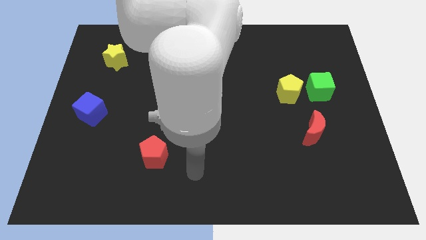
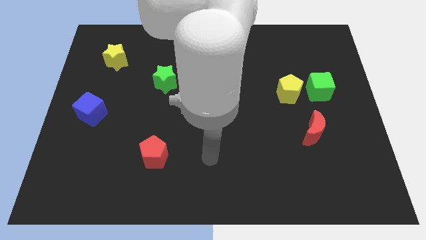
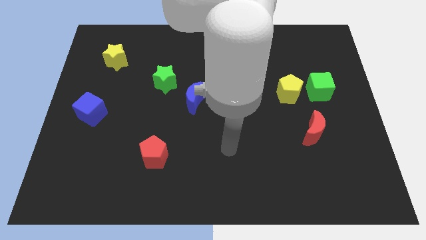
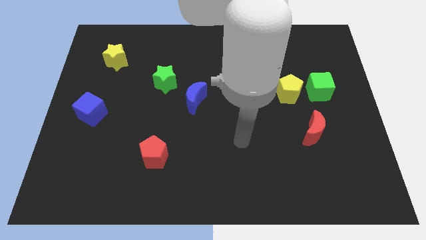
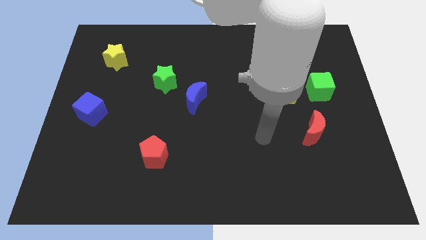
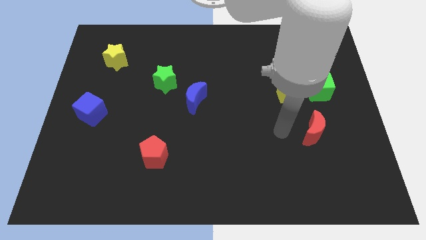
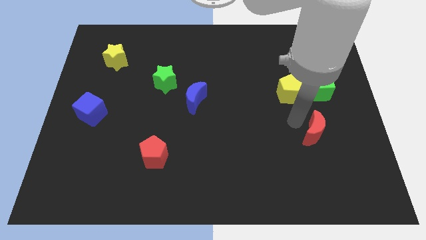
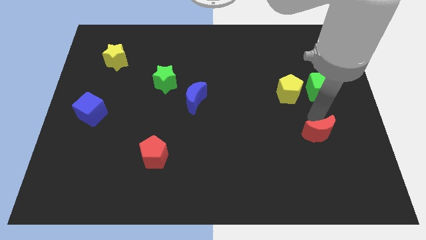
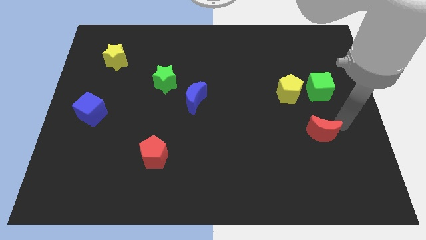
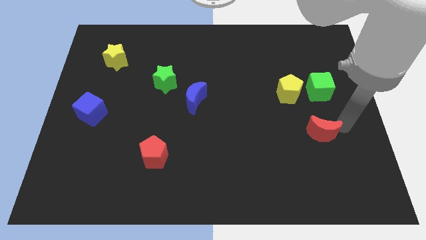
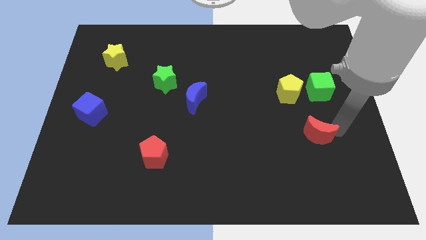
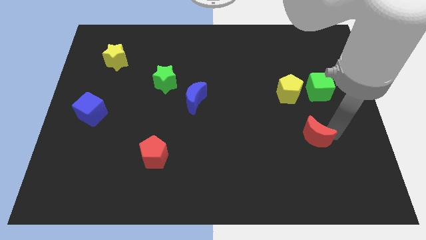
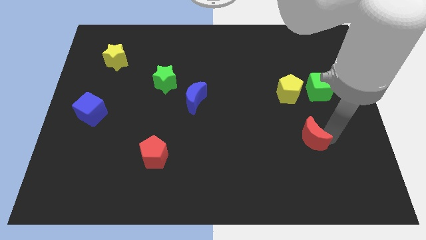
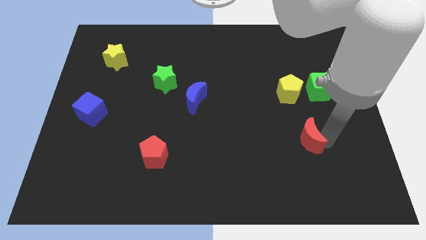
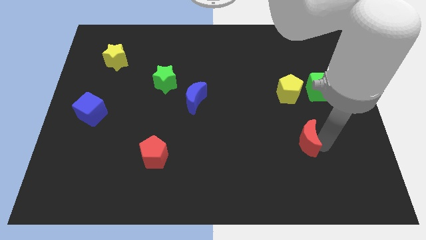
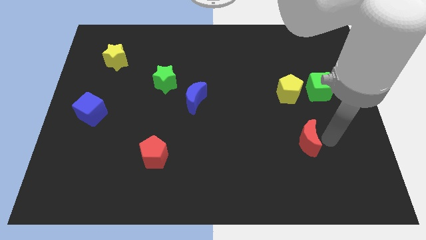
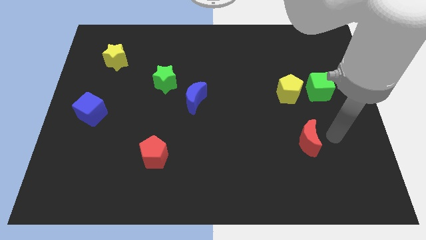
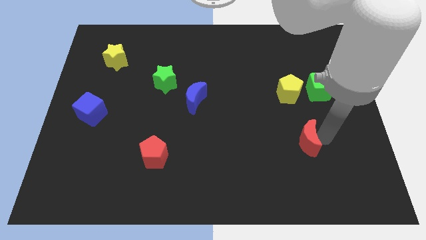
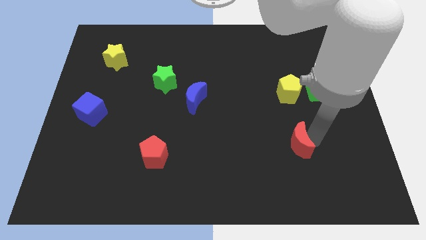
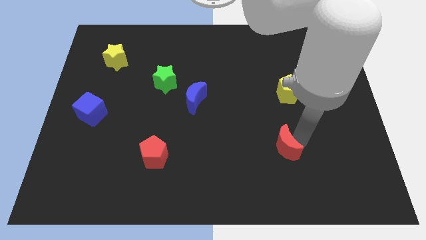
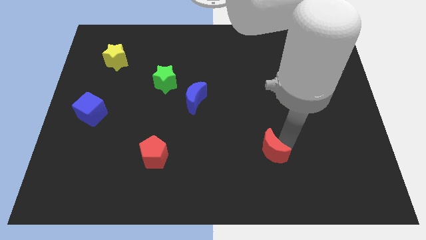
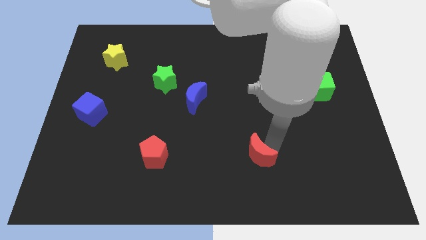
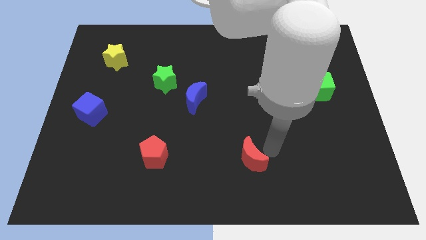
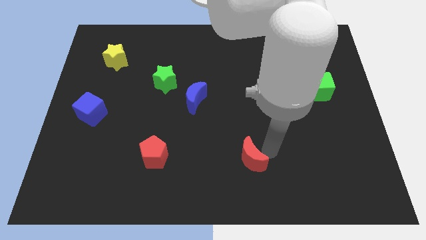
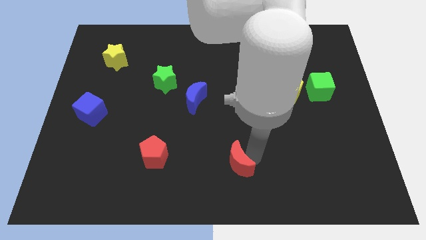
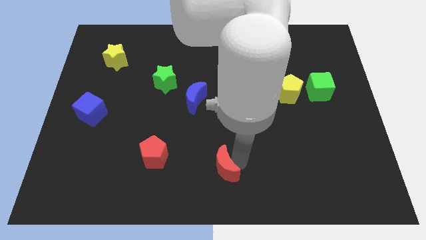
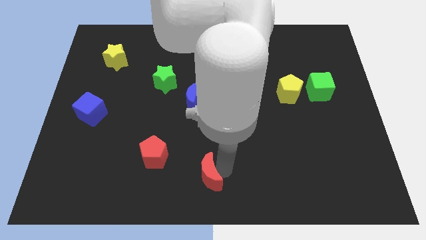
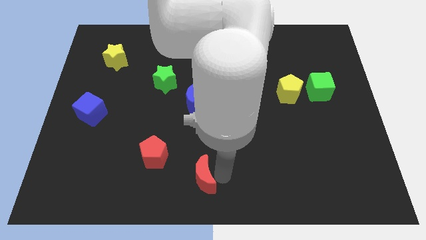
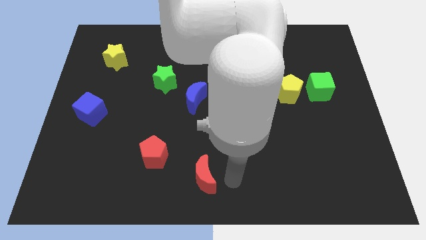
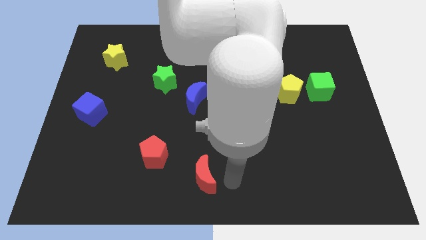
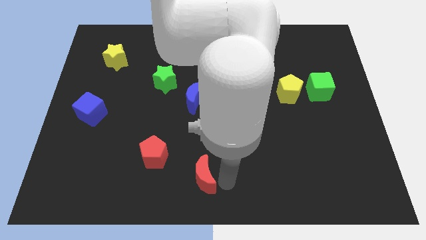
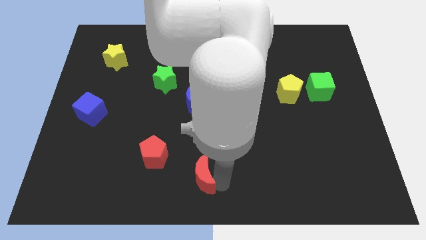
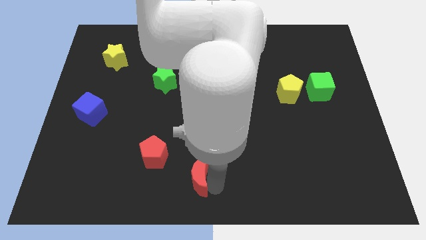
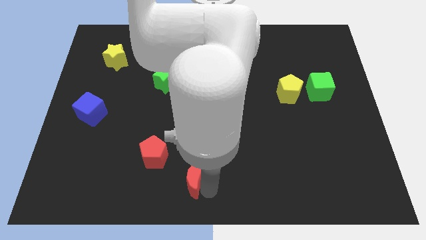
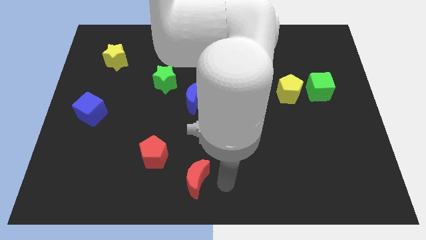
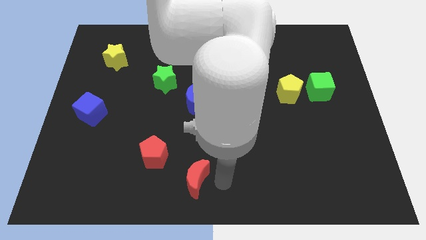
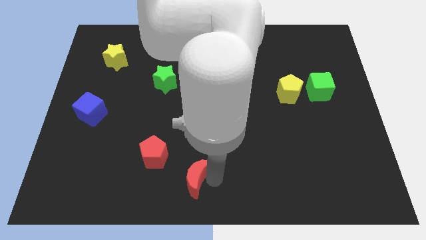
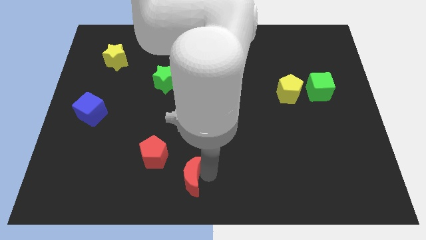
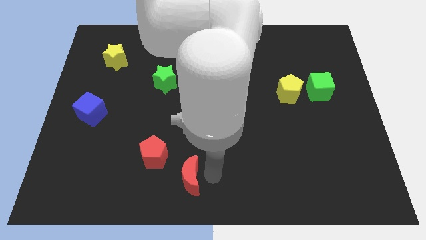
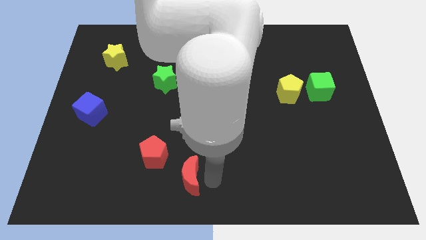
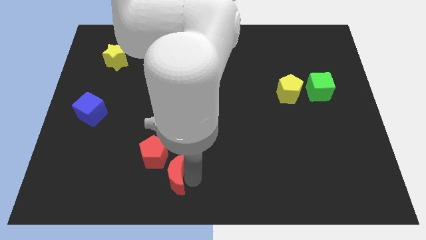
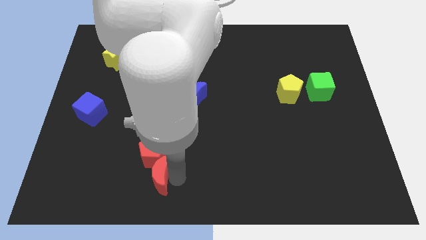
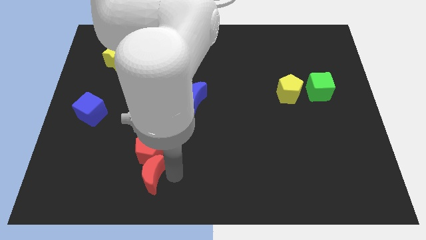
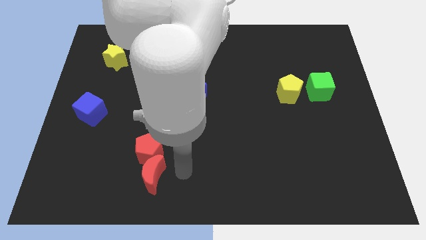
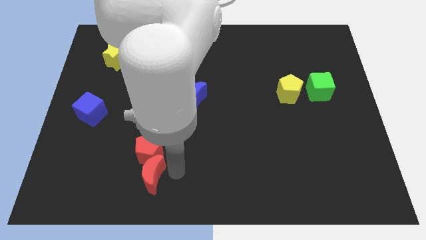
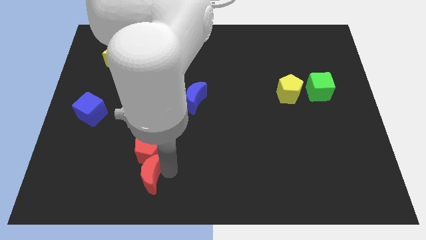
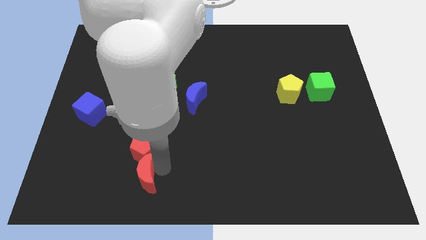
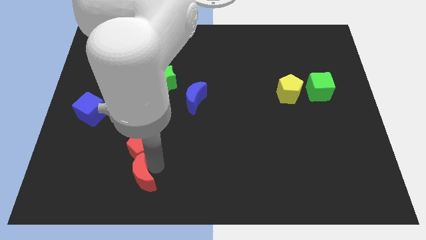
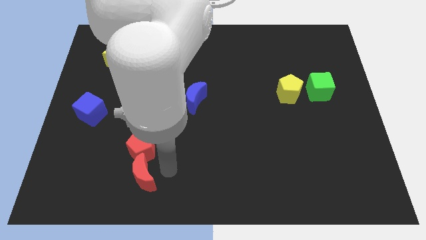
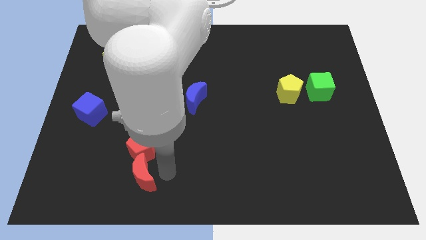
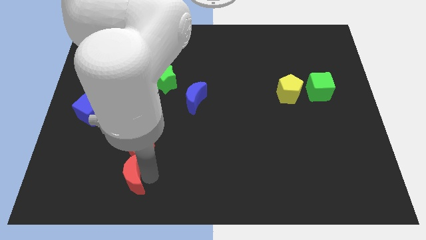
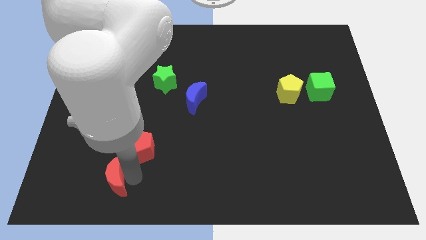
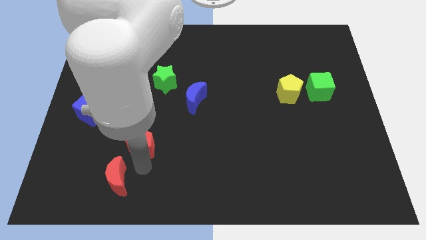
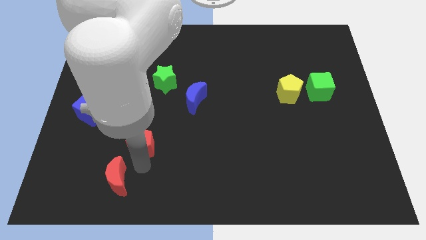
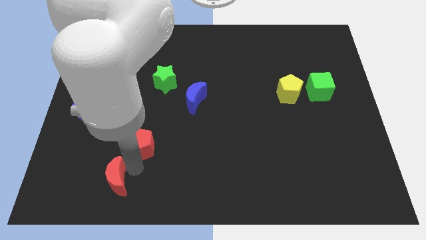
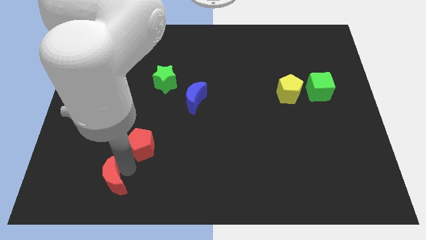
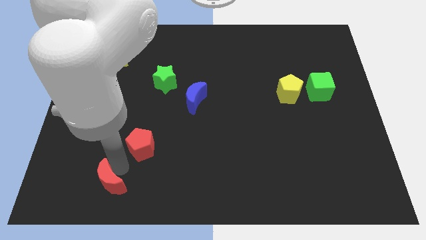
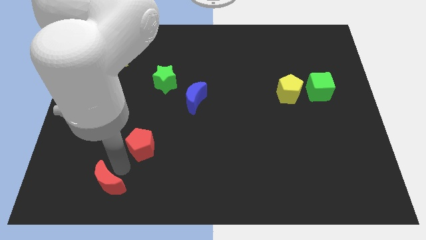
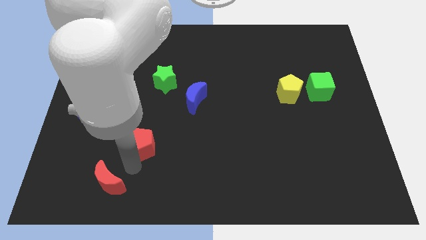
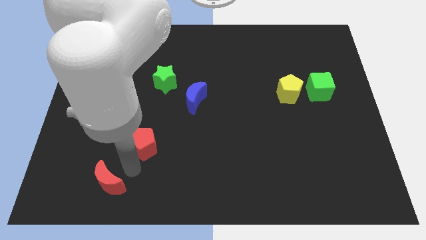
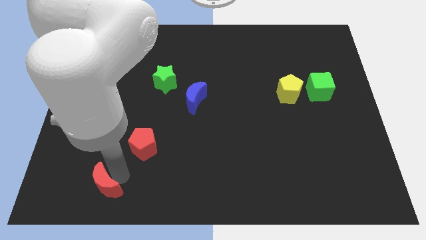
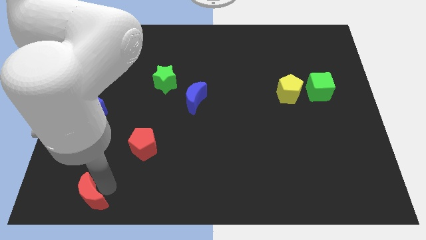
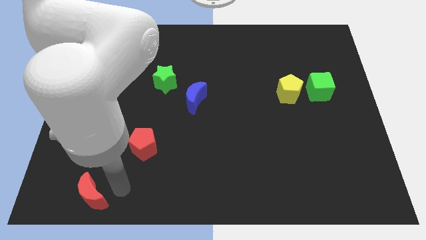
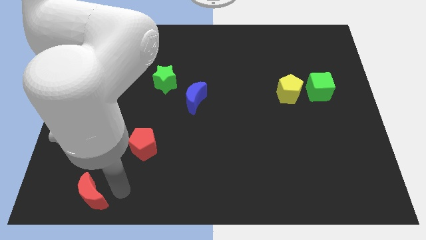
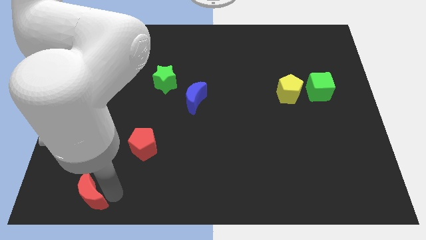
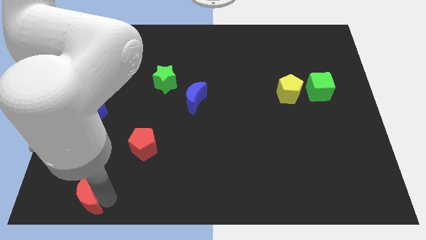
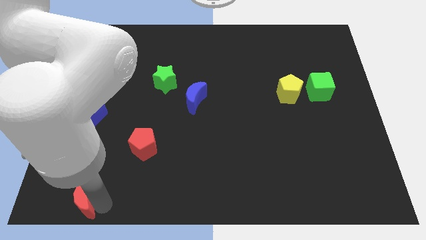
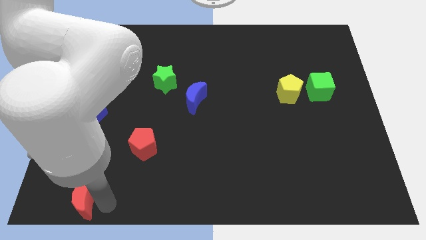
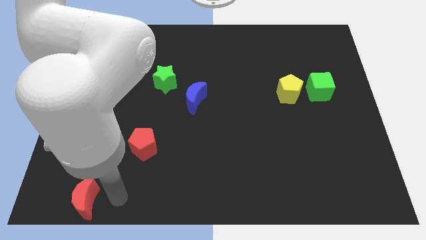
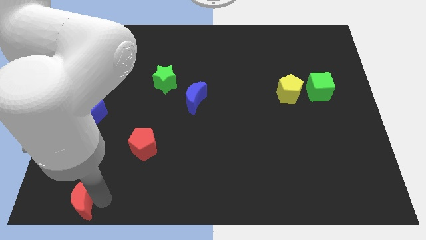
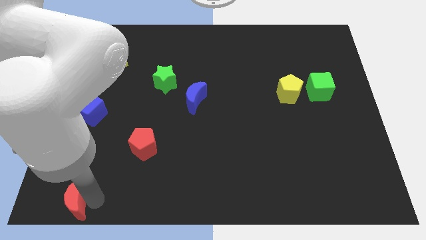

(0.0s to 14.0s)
move the red moon to the bottom left of the board
